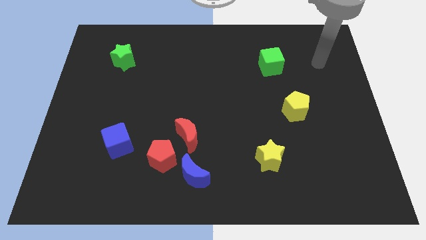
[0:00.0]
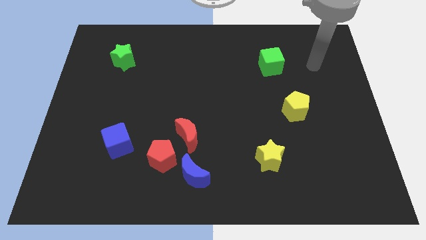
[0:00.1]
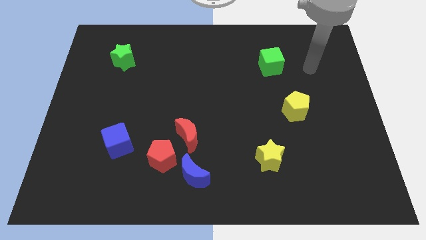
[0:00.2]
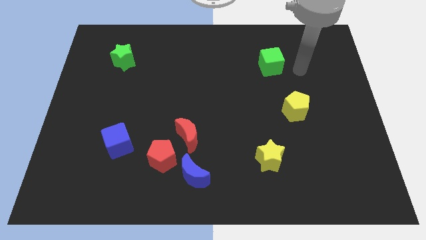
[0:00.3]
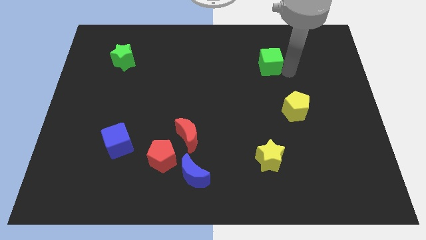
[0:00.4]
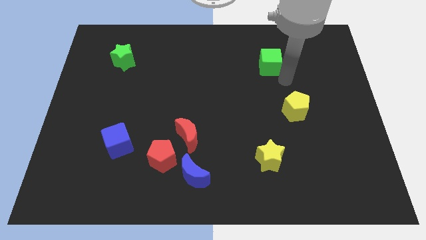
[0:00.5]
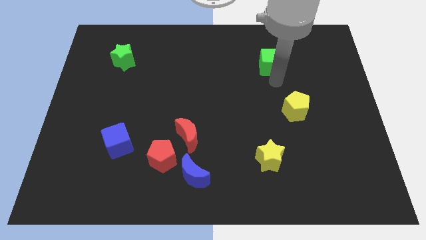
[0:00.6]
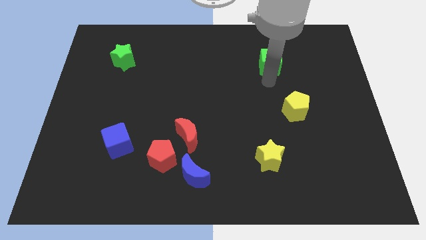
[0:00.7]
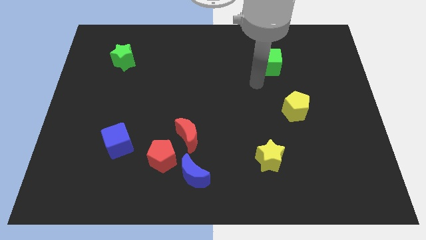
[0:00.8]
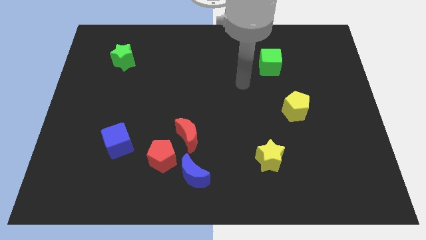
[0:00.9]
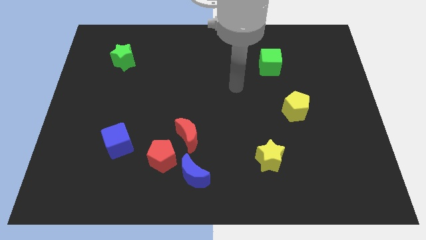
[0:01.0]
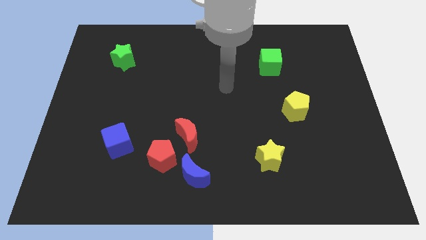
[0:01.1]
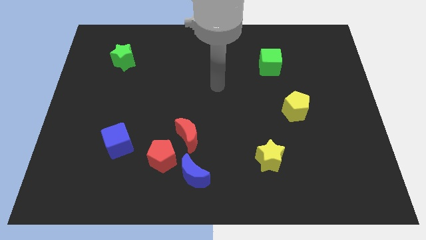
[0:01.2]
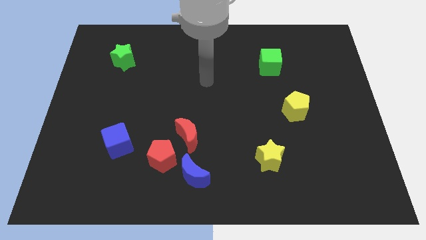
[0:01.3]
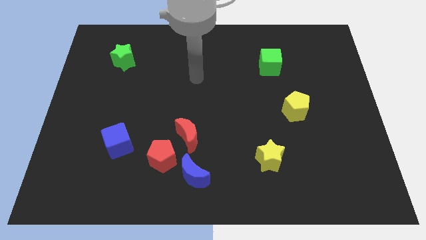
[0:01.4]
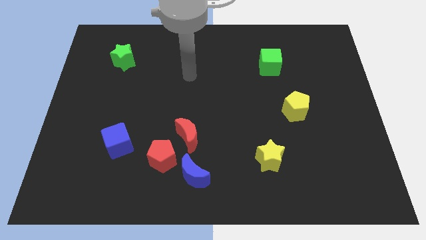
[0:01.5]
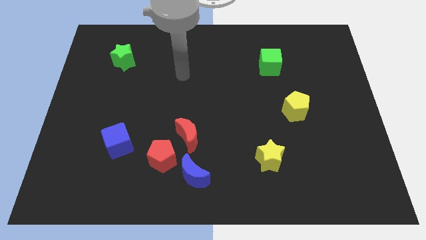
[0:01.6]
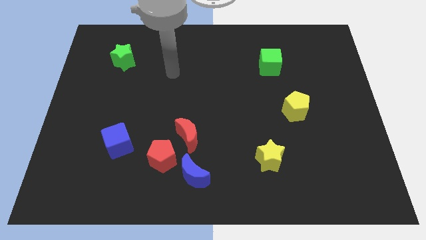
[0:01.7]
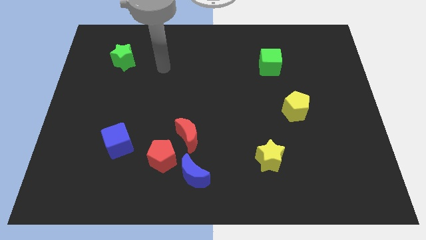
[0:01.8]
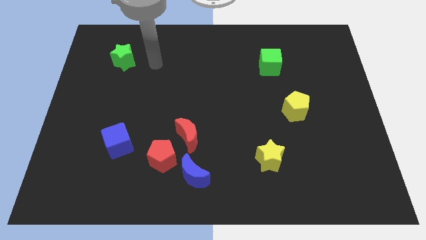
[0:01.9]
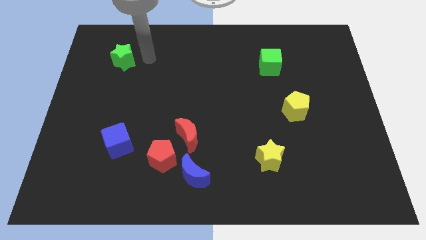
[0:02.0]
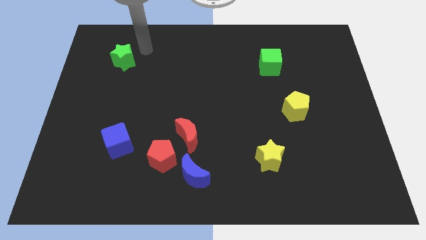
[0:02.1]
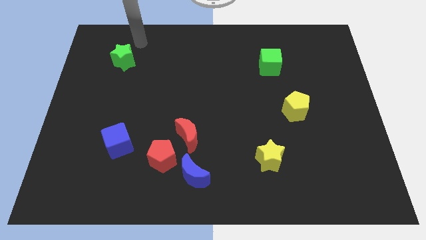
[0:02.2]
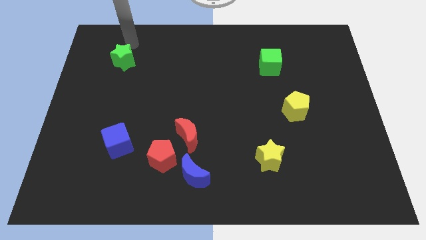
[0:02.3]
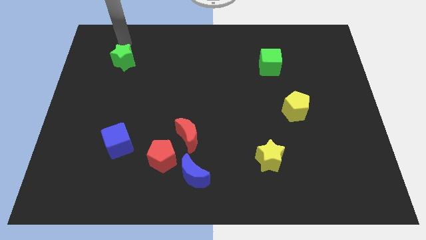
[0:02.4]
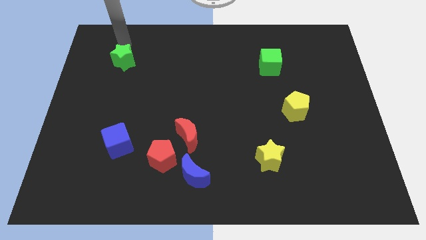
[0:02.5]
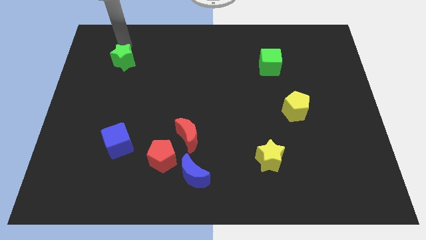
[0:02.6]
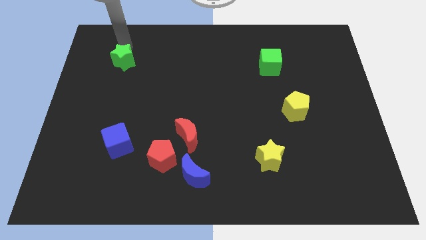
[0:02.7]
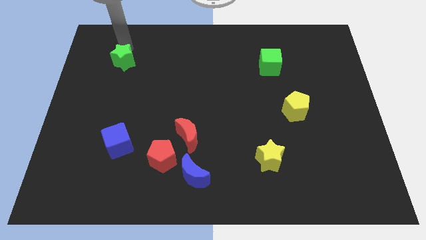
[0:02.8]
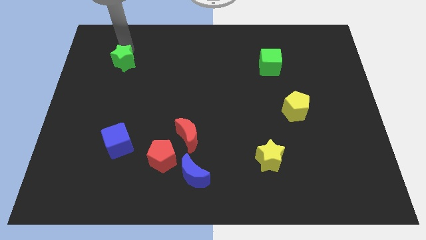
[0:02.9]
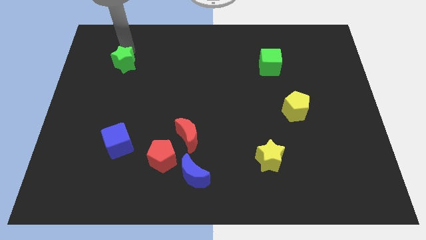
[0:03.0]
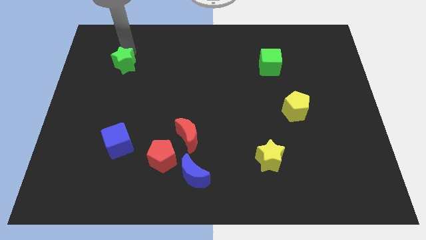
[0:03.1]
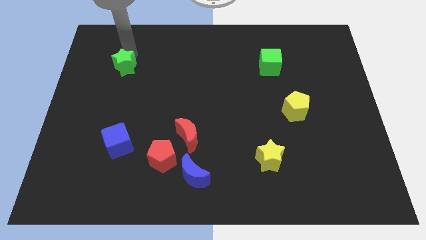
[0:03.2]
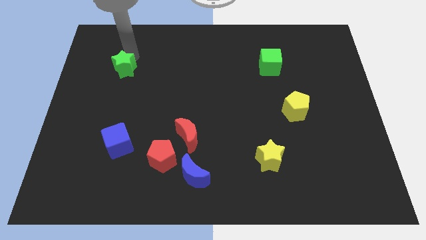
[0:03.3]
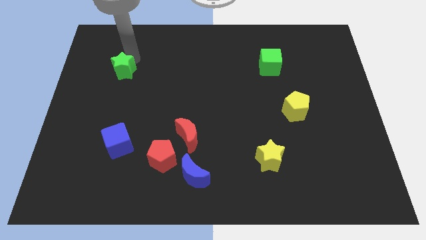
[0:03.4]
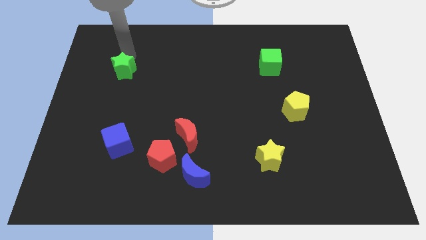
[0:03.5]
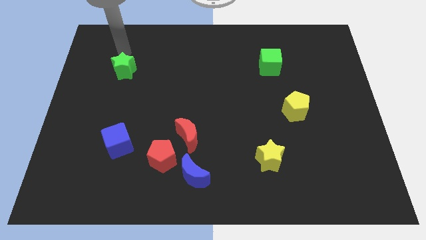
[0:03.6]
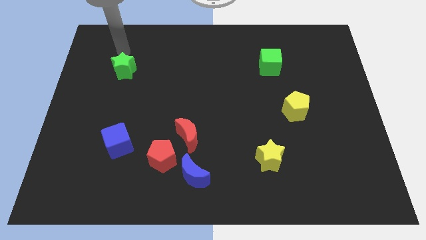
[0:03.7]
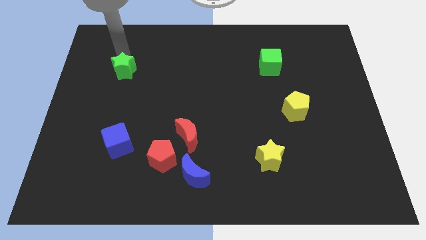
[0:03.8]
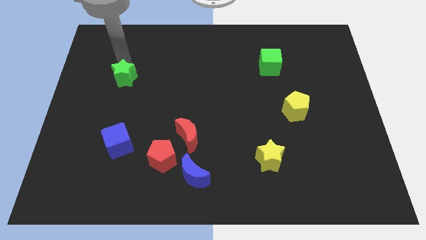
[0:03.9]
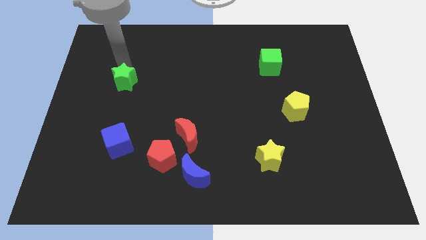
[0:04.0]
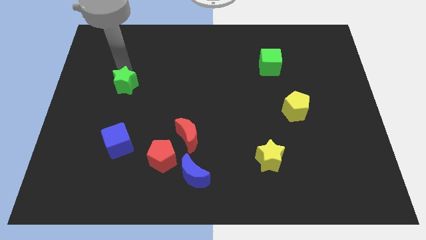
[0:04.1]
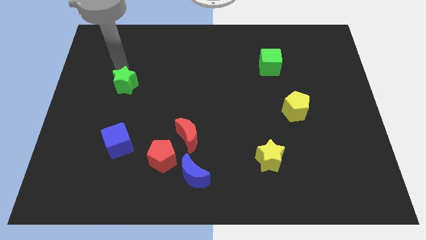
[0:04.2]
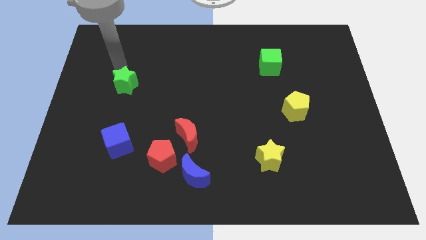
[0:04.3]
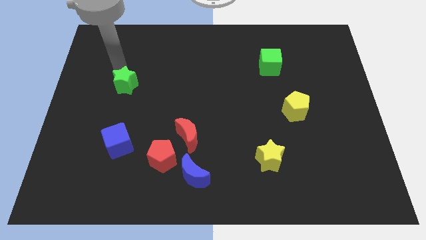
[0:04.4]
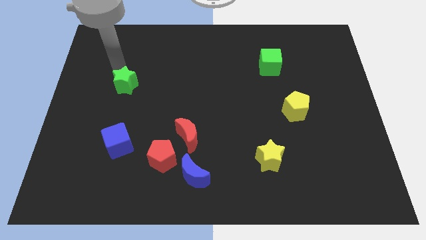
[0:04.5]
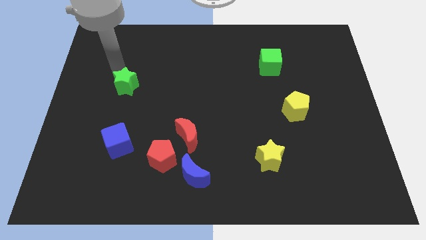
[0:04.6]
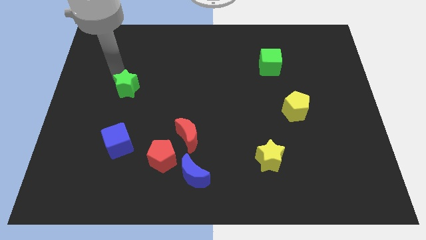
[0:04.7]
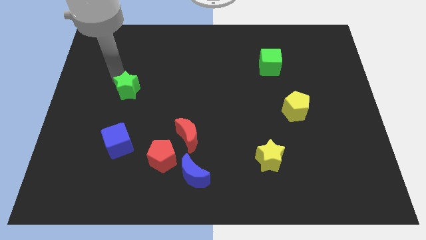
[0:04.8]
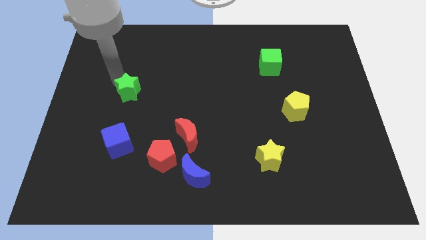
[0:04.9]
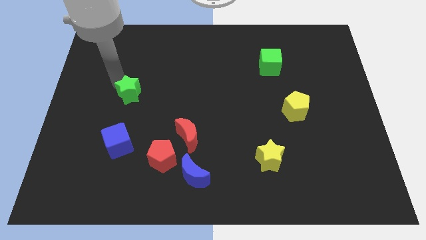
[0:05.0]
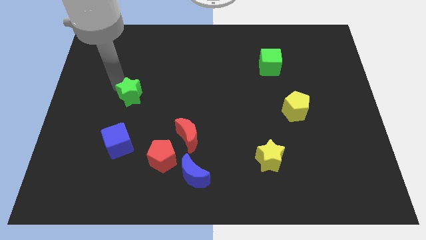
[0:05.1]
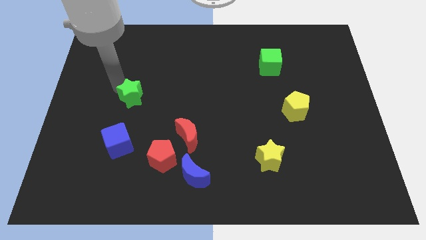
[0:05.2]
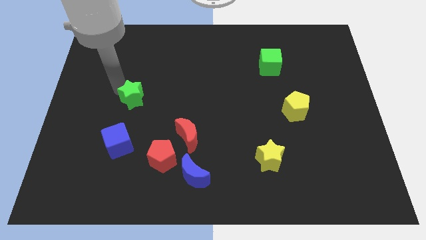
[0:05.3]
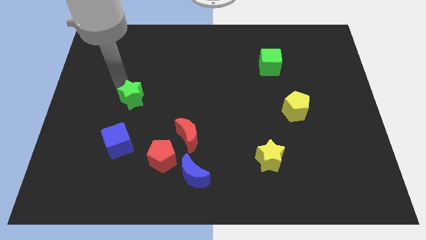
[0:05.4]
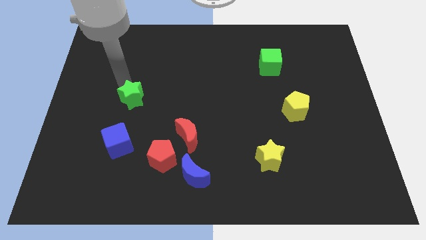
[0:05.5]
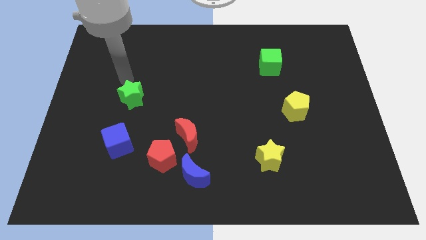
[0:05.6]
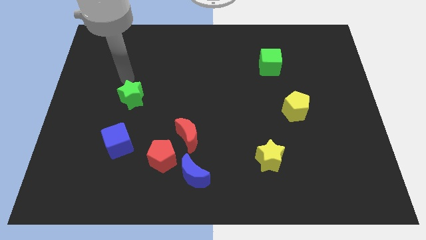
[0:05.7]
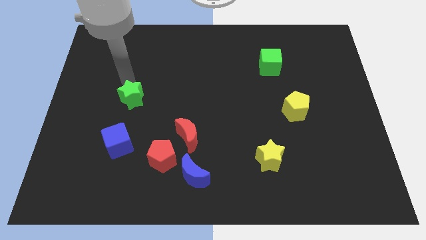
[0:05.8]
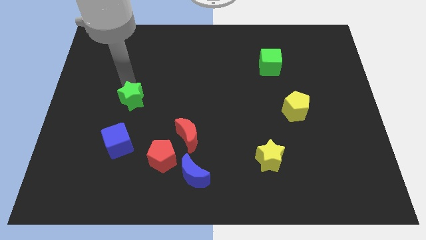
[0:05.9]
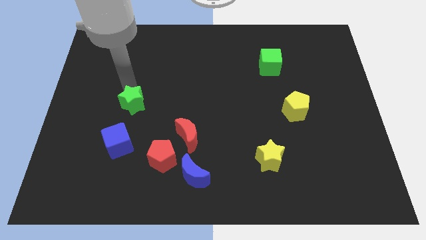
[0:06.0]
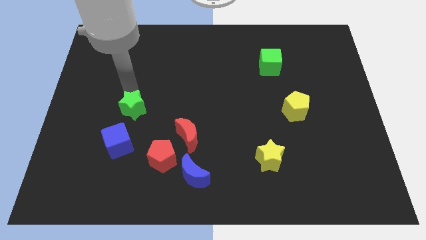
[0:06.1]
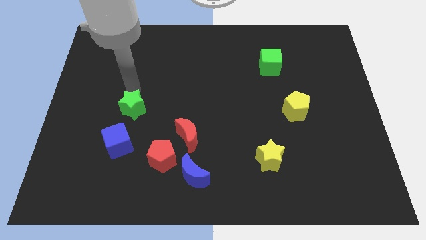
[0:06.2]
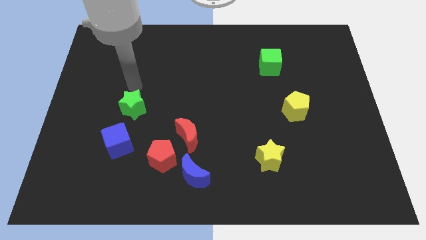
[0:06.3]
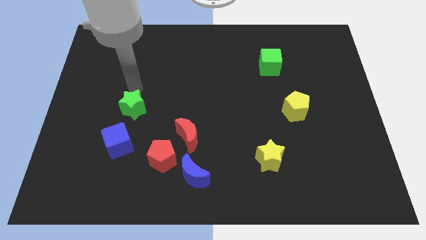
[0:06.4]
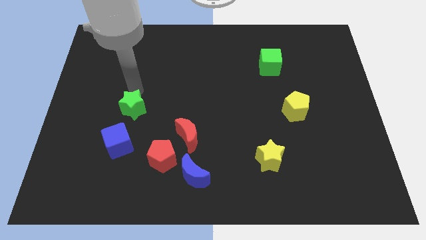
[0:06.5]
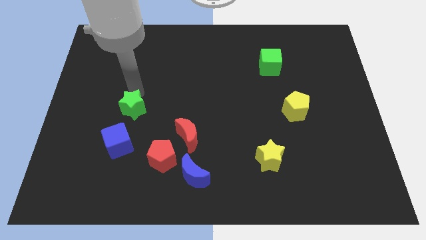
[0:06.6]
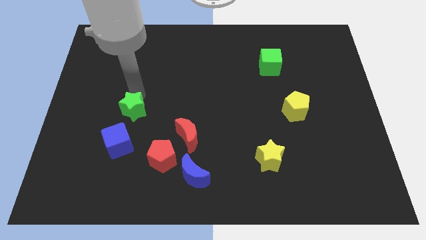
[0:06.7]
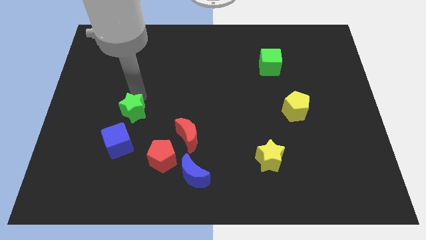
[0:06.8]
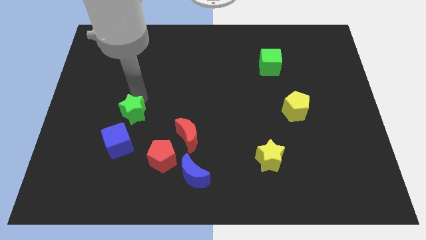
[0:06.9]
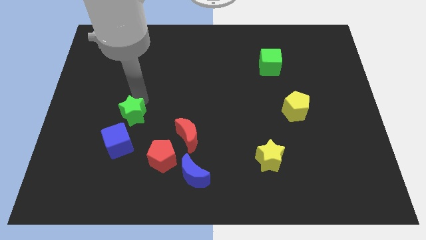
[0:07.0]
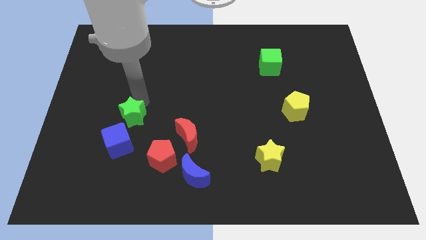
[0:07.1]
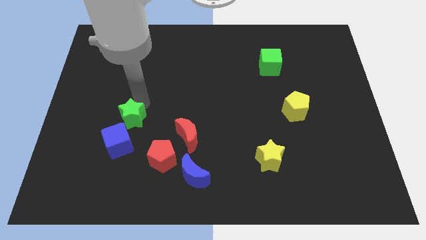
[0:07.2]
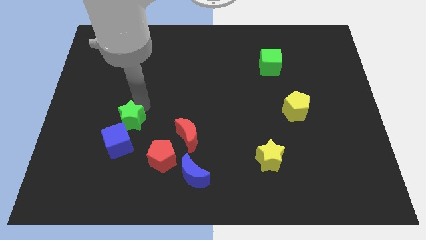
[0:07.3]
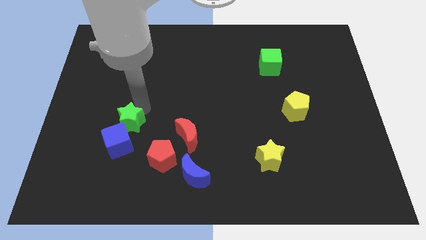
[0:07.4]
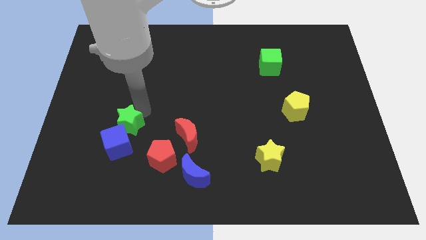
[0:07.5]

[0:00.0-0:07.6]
move the green star to the blue cube
